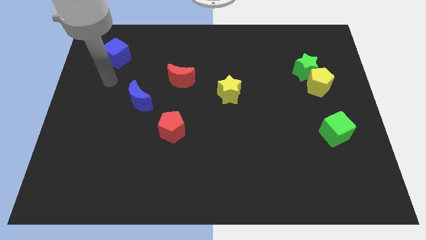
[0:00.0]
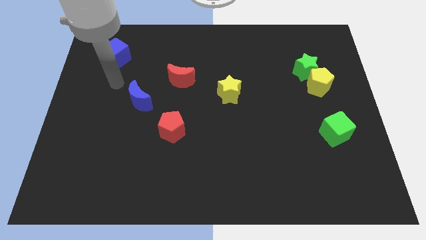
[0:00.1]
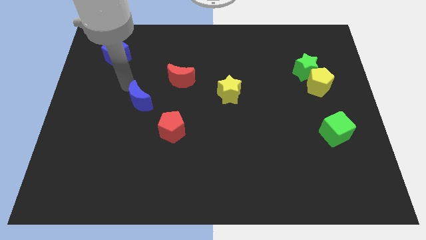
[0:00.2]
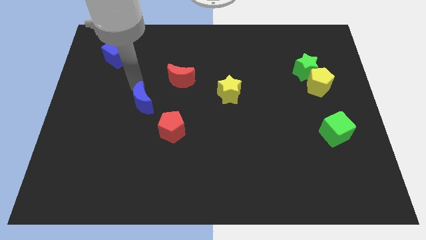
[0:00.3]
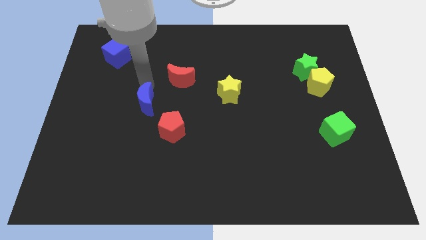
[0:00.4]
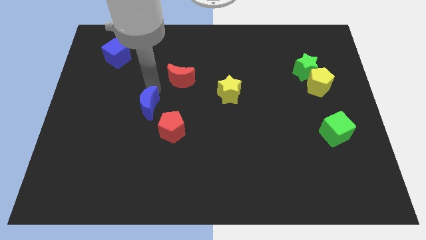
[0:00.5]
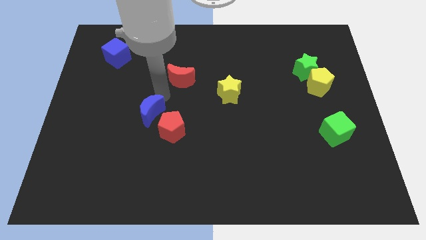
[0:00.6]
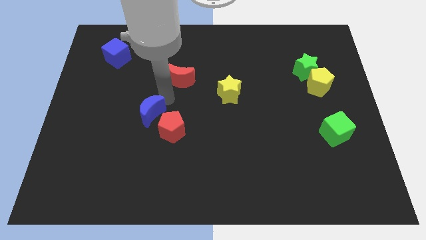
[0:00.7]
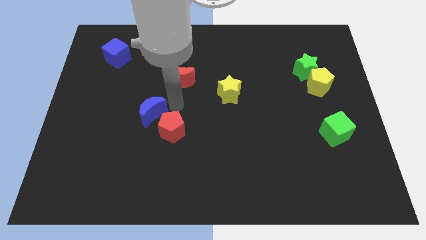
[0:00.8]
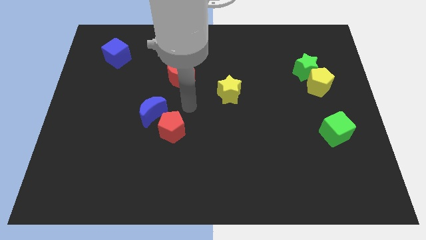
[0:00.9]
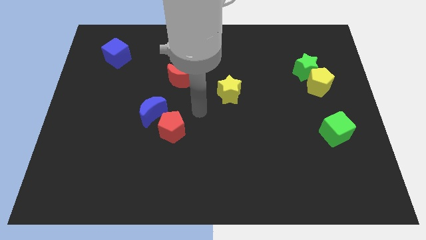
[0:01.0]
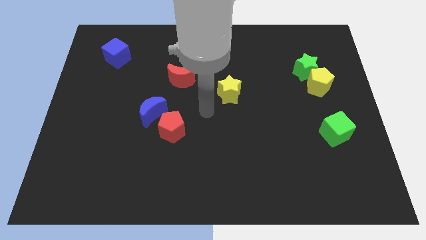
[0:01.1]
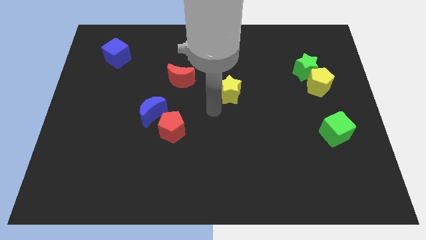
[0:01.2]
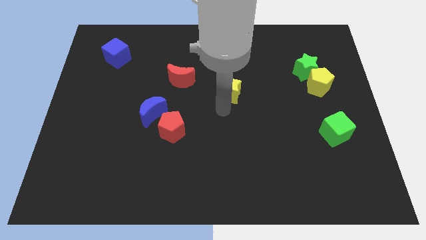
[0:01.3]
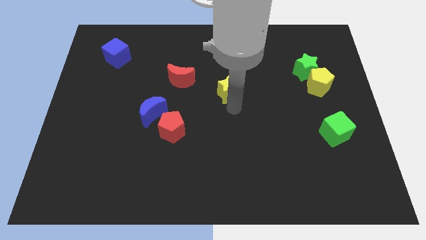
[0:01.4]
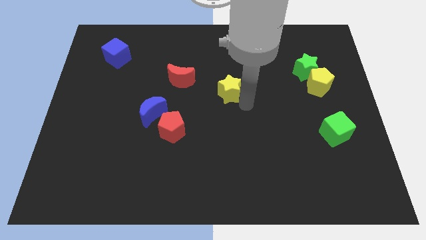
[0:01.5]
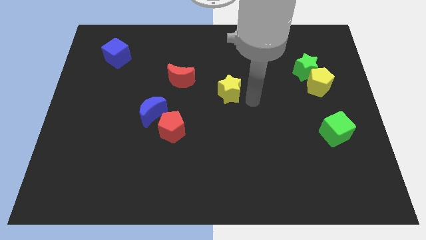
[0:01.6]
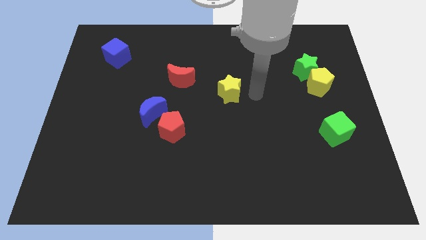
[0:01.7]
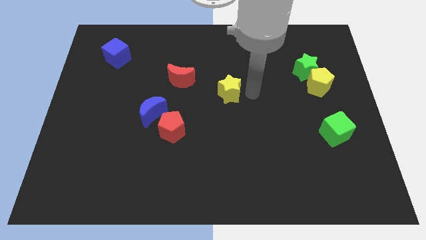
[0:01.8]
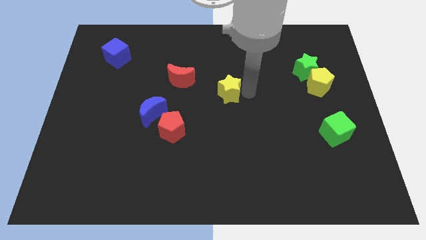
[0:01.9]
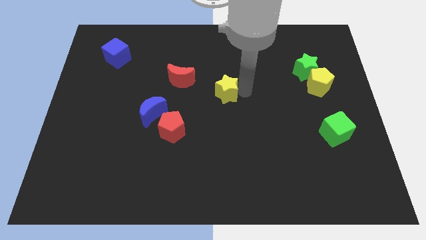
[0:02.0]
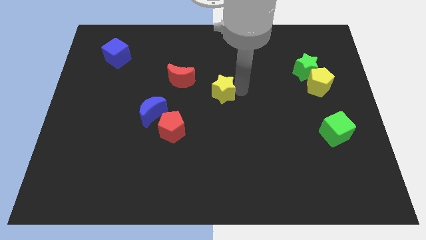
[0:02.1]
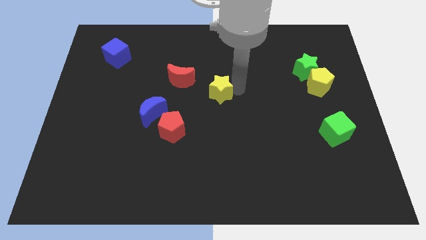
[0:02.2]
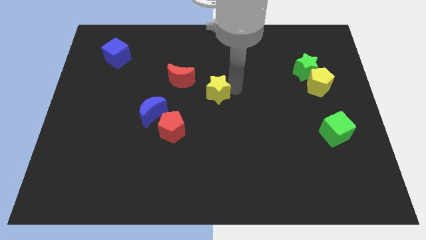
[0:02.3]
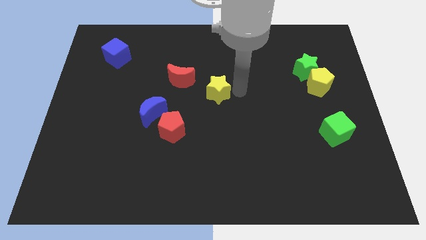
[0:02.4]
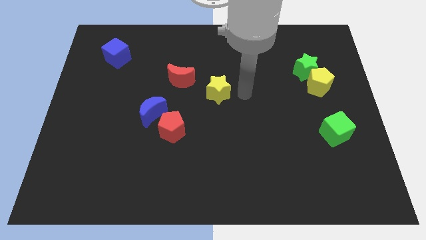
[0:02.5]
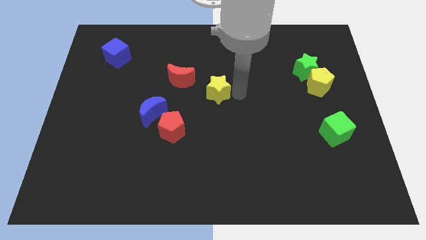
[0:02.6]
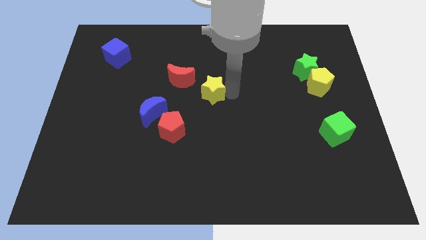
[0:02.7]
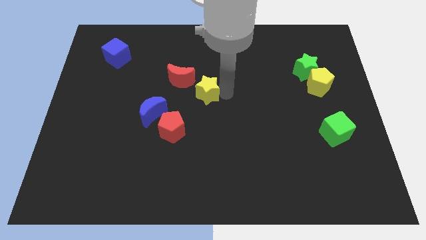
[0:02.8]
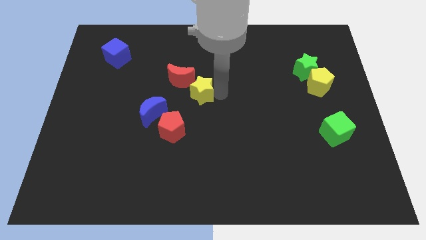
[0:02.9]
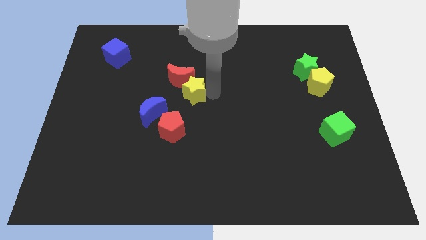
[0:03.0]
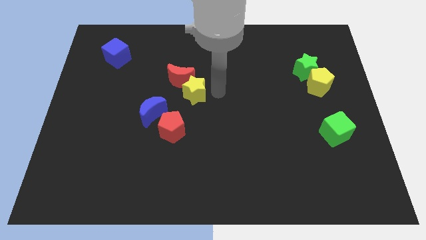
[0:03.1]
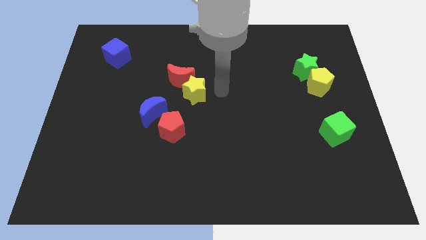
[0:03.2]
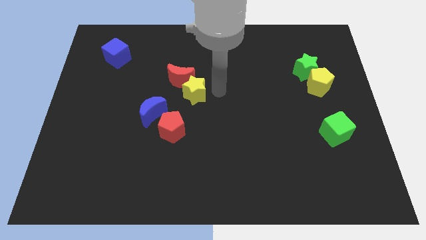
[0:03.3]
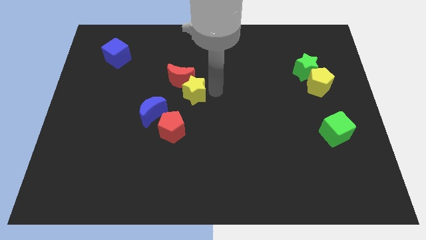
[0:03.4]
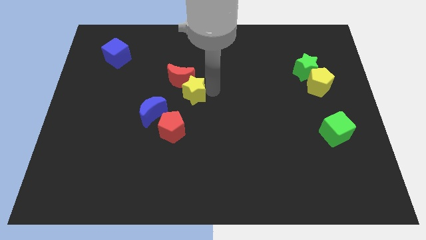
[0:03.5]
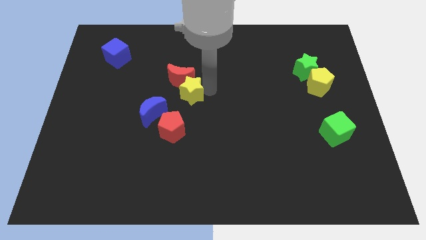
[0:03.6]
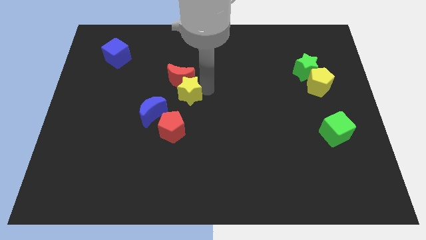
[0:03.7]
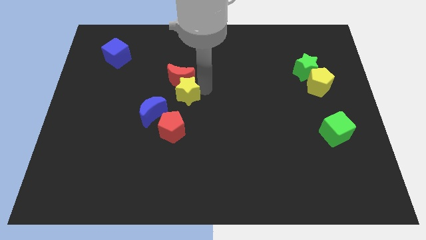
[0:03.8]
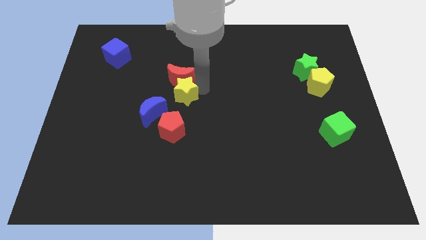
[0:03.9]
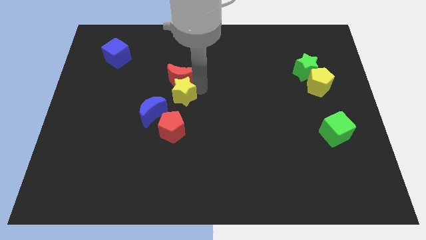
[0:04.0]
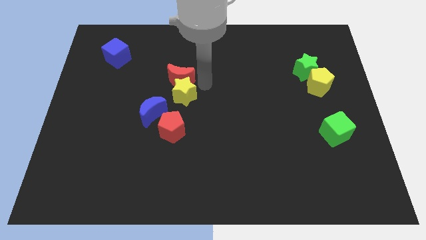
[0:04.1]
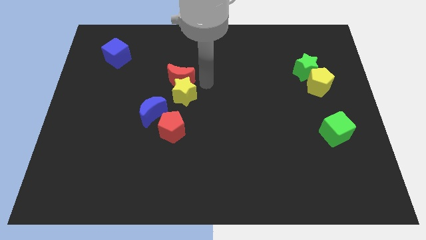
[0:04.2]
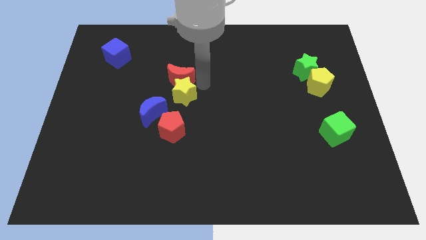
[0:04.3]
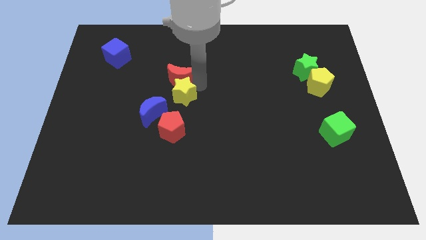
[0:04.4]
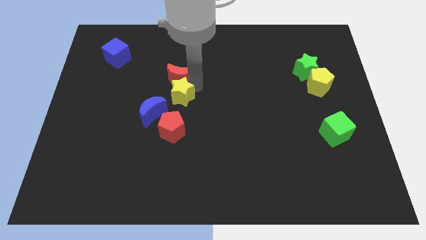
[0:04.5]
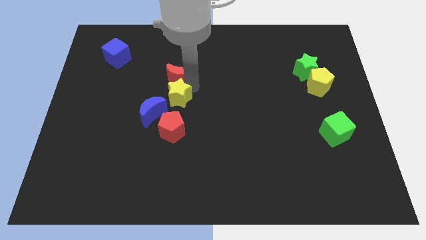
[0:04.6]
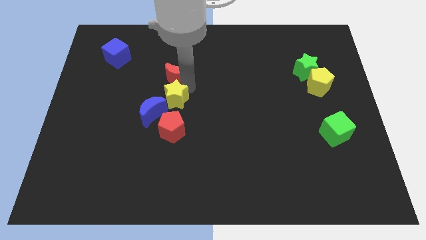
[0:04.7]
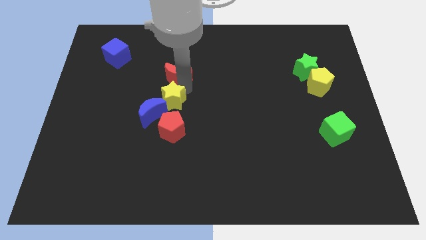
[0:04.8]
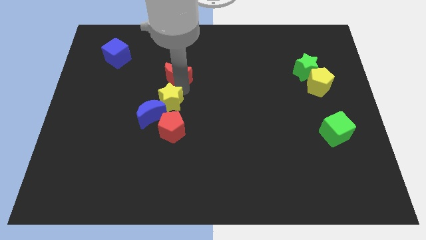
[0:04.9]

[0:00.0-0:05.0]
put the yellow star next to the blue moon

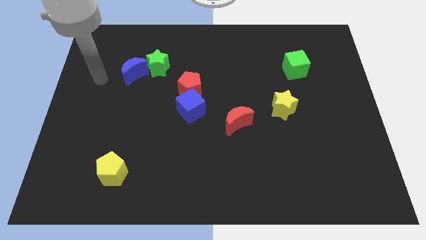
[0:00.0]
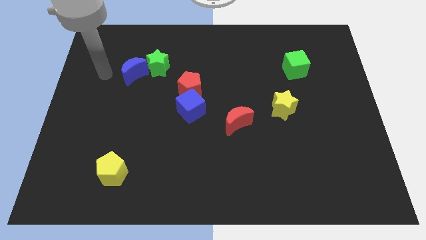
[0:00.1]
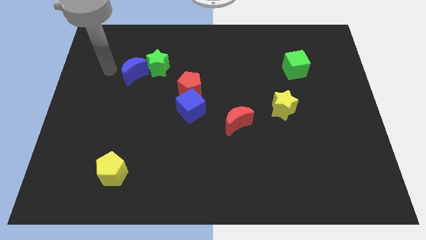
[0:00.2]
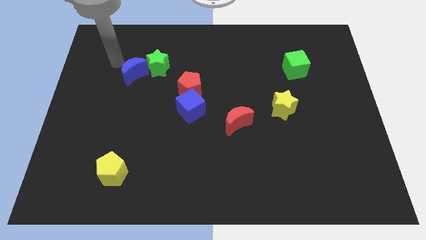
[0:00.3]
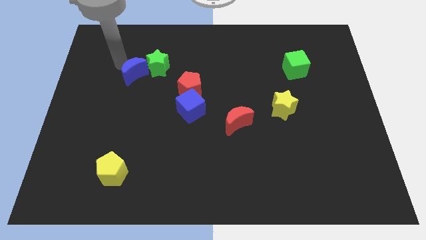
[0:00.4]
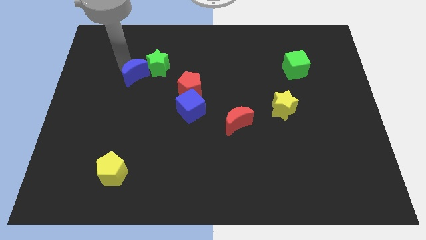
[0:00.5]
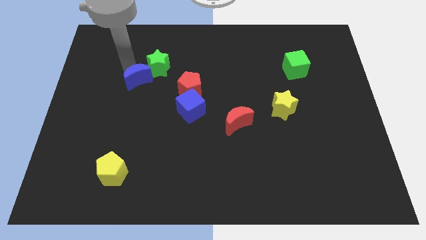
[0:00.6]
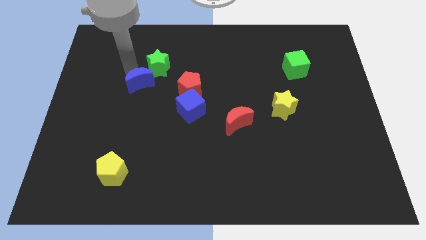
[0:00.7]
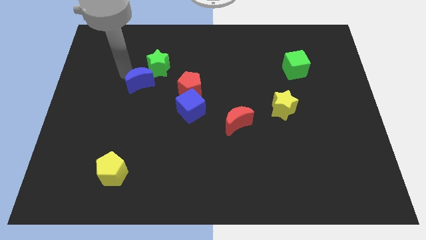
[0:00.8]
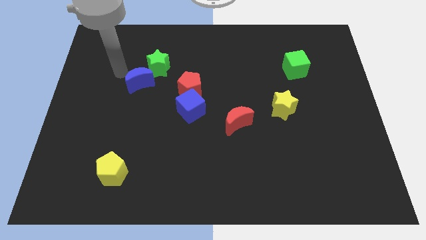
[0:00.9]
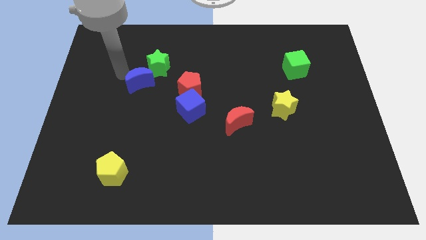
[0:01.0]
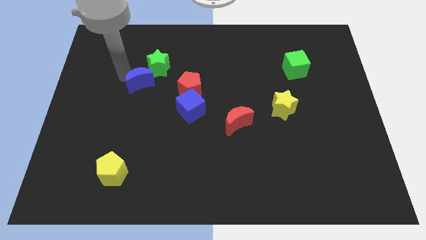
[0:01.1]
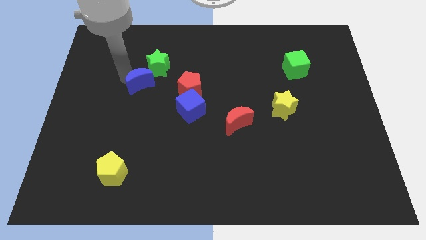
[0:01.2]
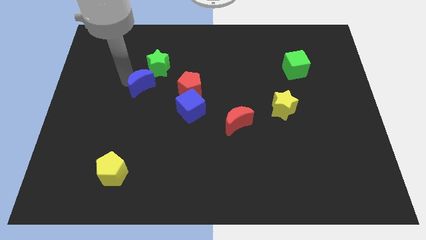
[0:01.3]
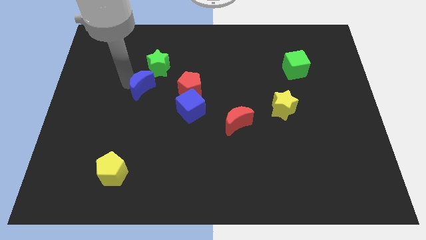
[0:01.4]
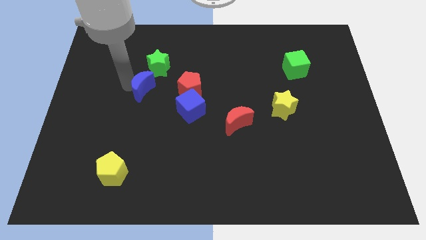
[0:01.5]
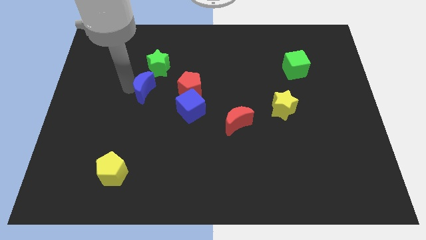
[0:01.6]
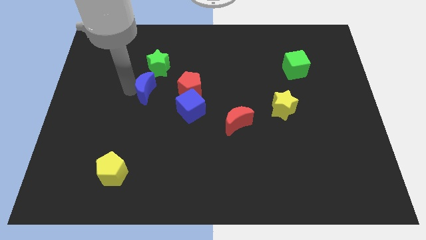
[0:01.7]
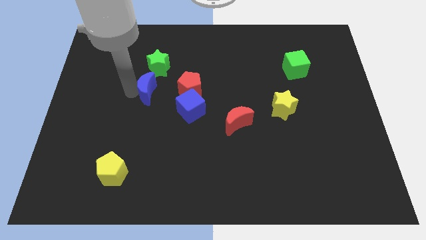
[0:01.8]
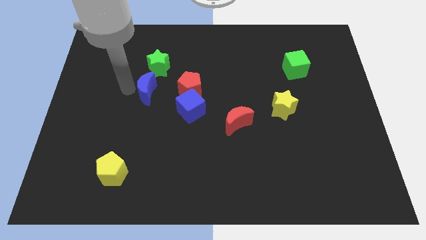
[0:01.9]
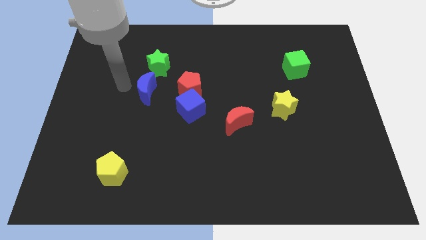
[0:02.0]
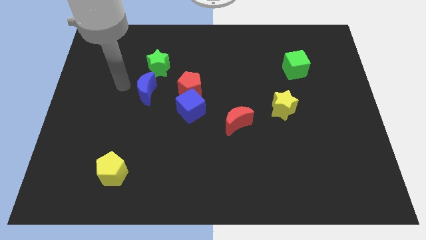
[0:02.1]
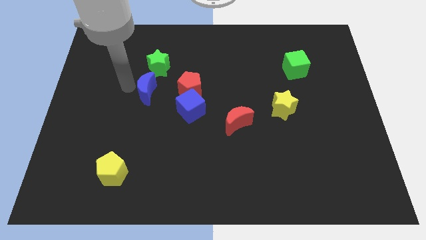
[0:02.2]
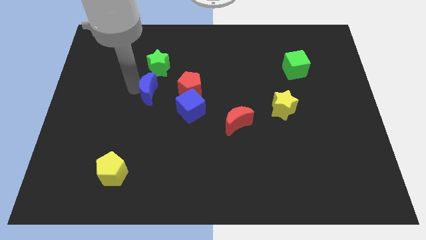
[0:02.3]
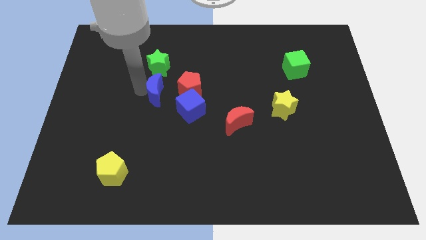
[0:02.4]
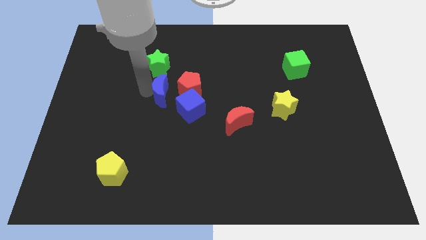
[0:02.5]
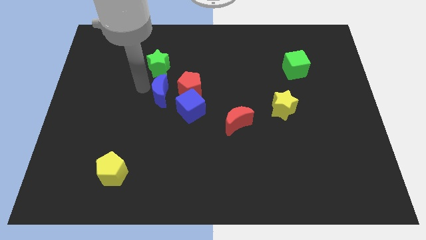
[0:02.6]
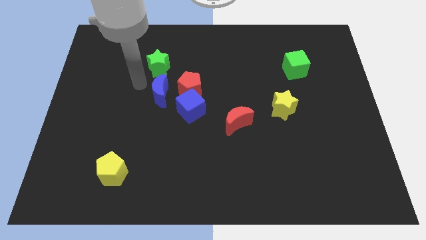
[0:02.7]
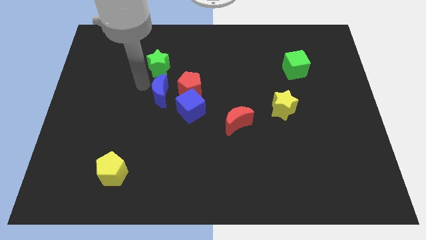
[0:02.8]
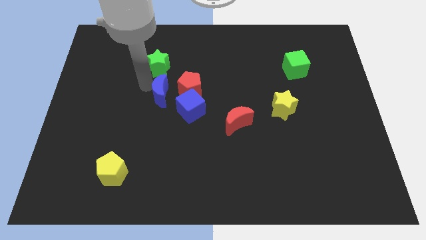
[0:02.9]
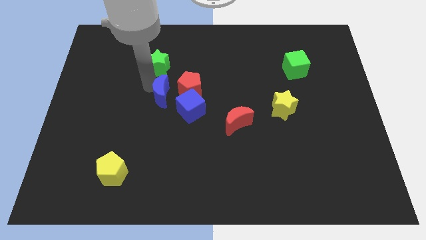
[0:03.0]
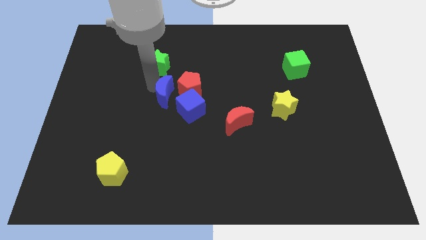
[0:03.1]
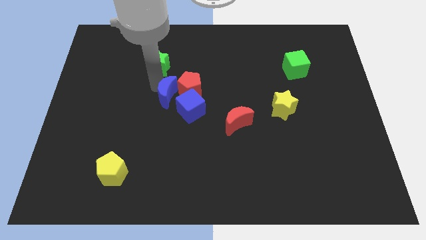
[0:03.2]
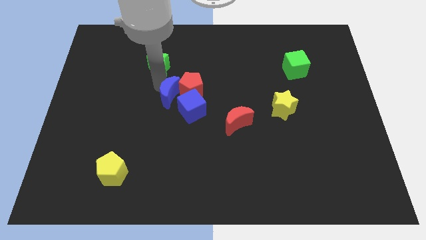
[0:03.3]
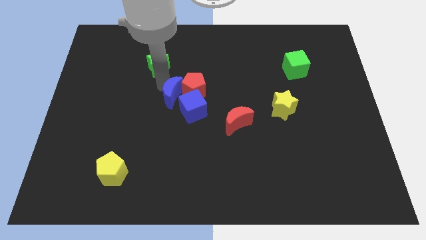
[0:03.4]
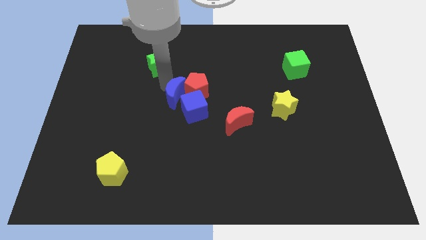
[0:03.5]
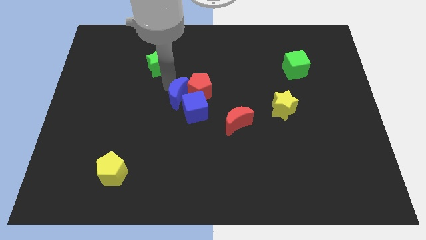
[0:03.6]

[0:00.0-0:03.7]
push the blue moon to the blue cube
